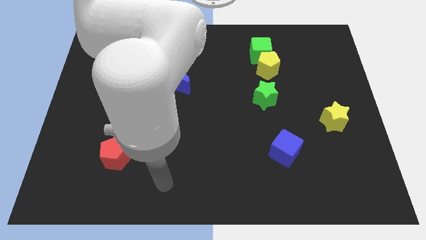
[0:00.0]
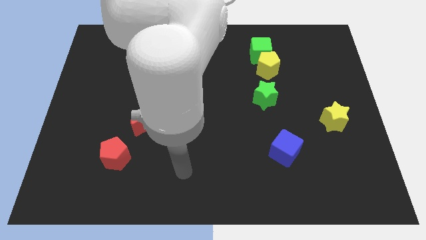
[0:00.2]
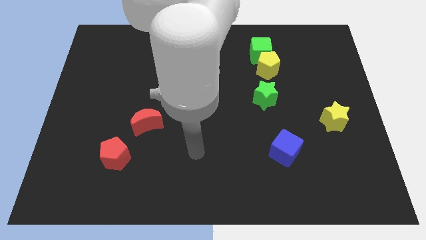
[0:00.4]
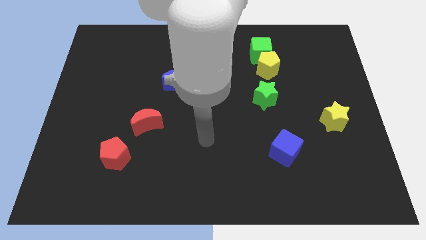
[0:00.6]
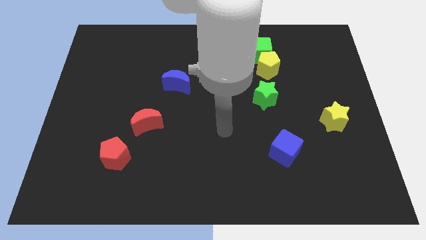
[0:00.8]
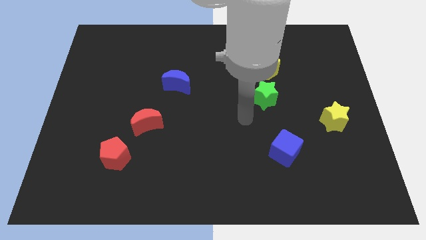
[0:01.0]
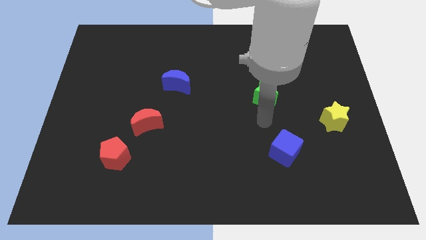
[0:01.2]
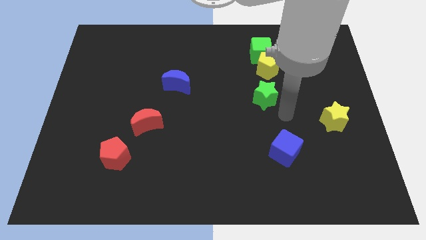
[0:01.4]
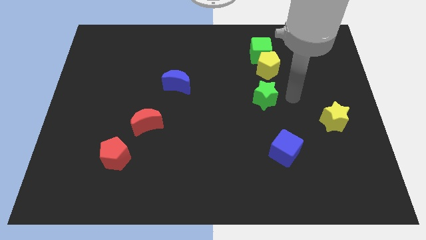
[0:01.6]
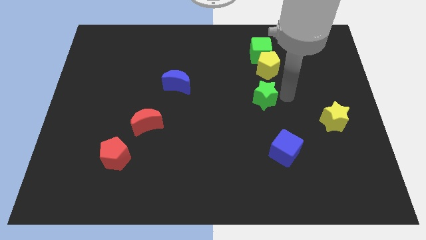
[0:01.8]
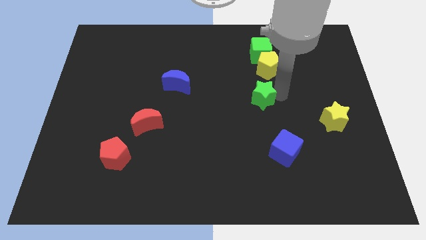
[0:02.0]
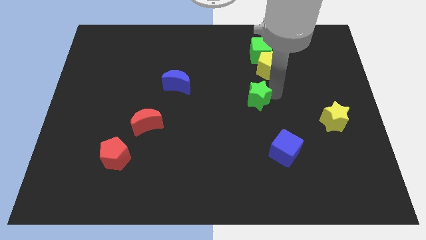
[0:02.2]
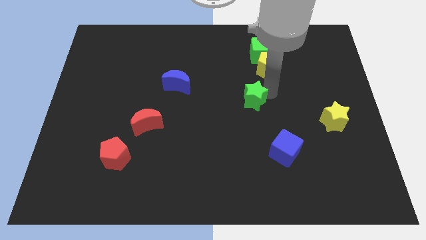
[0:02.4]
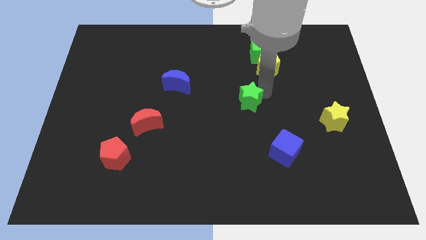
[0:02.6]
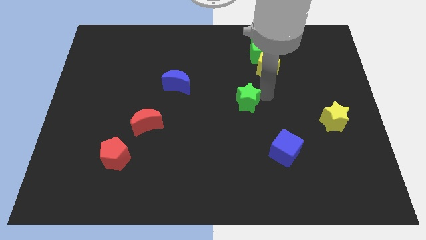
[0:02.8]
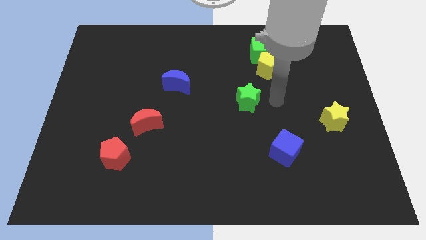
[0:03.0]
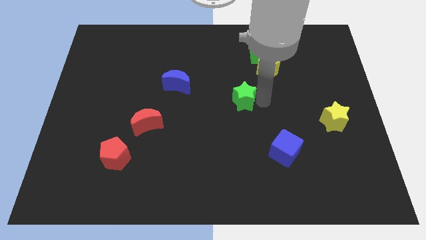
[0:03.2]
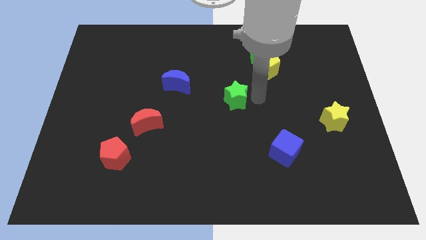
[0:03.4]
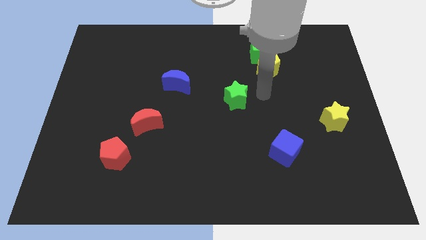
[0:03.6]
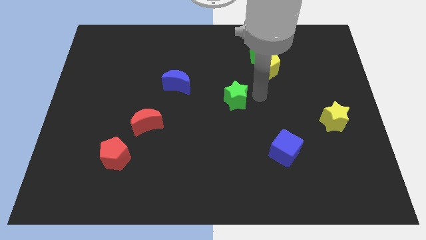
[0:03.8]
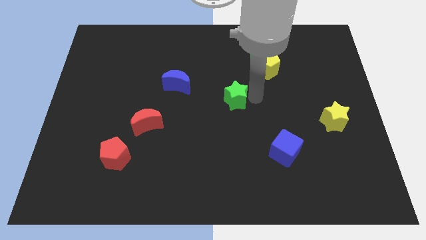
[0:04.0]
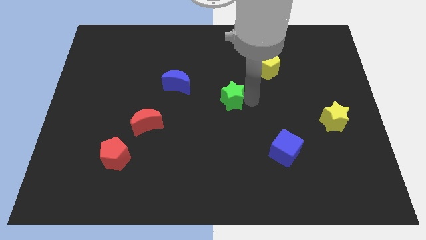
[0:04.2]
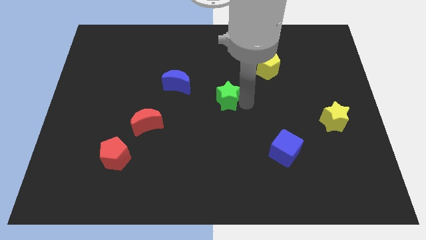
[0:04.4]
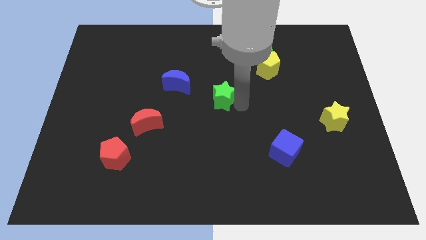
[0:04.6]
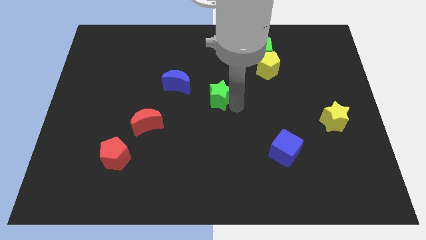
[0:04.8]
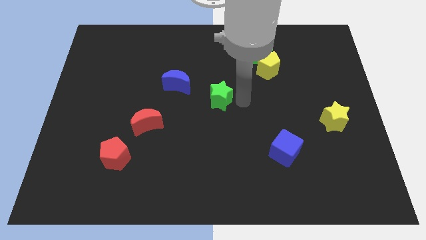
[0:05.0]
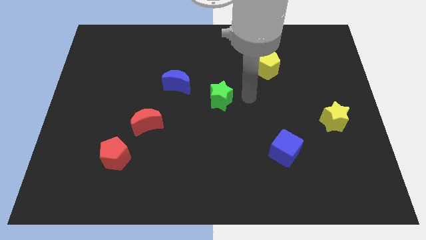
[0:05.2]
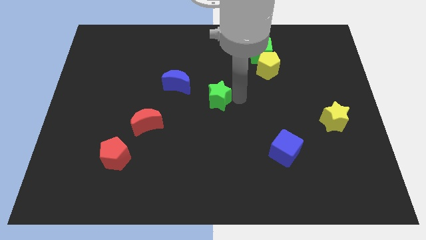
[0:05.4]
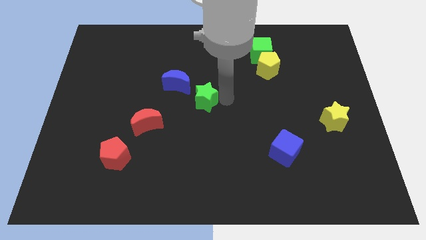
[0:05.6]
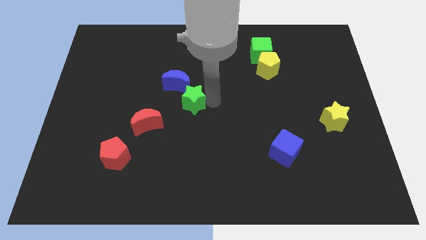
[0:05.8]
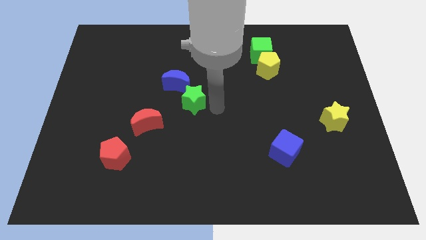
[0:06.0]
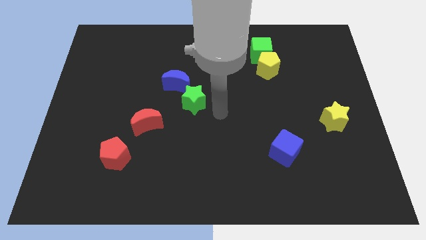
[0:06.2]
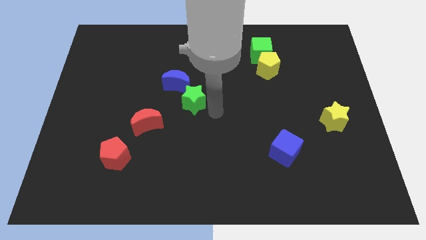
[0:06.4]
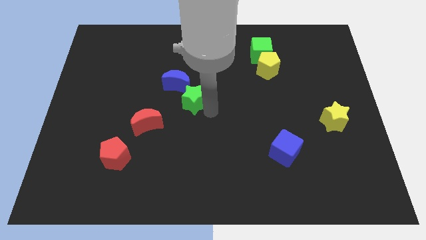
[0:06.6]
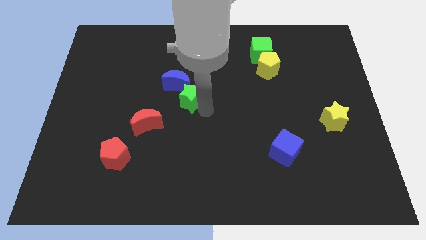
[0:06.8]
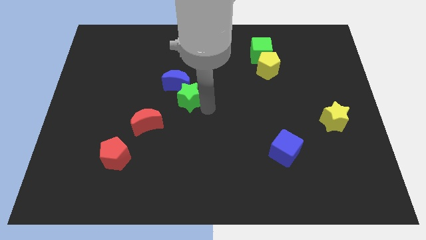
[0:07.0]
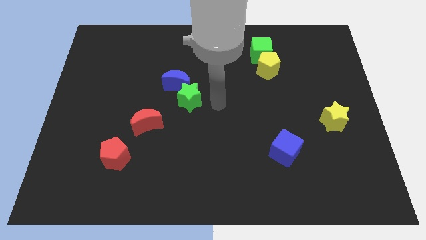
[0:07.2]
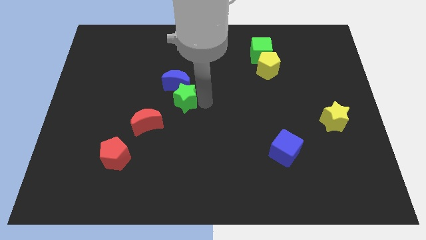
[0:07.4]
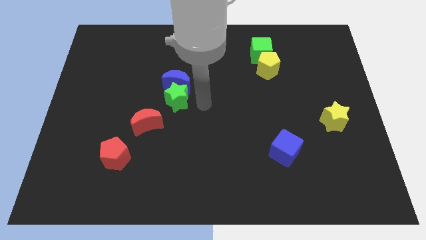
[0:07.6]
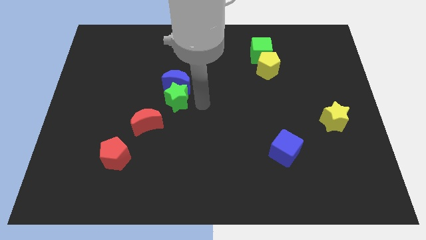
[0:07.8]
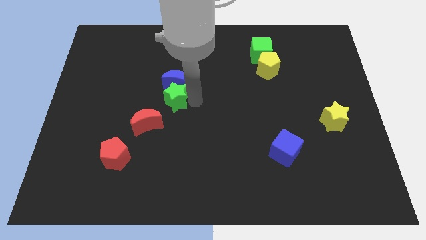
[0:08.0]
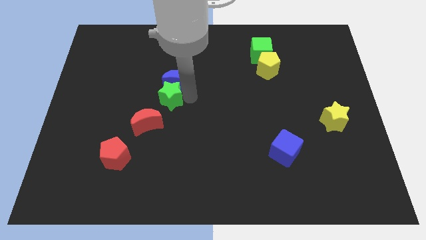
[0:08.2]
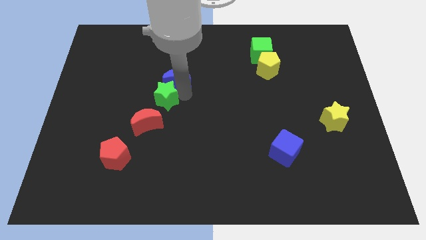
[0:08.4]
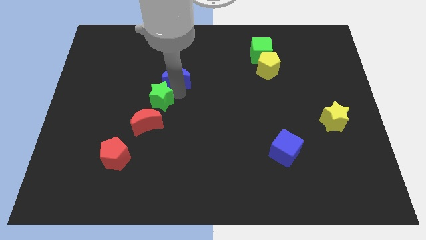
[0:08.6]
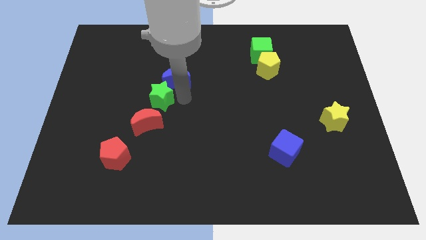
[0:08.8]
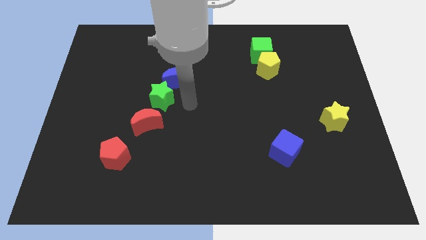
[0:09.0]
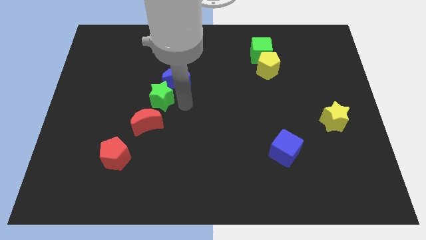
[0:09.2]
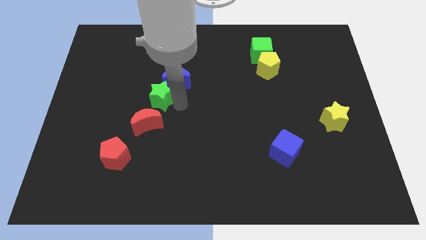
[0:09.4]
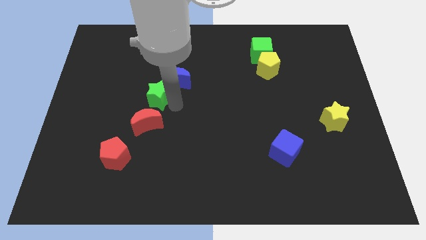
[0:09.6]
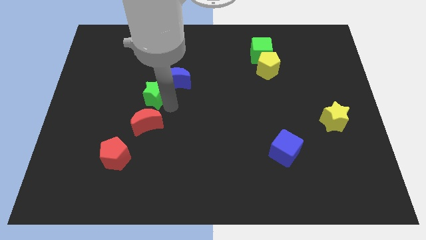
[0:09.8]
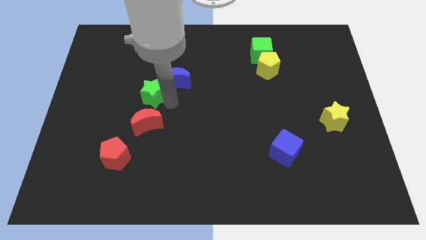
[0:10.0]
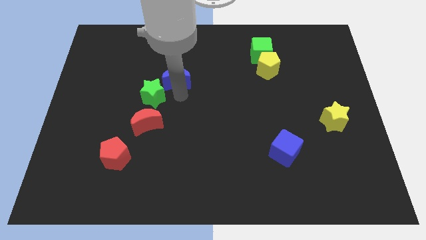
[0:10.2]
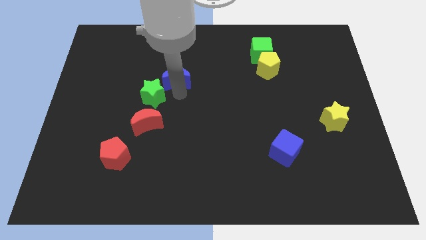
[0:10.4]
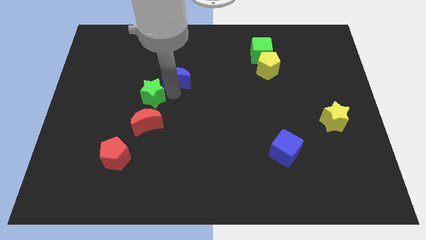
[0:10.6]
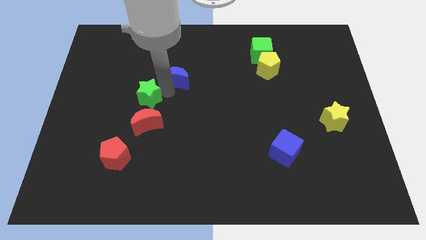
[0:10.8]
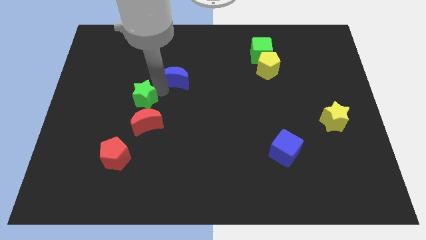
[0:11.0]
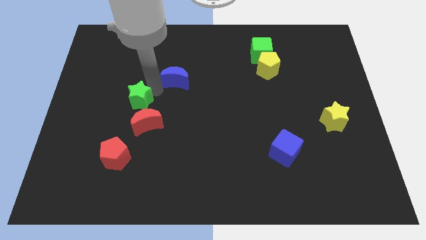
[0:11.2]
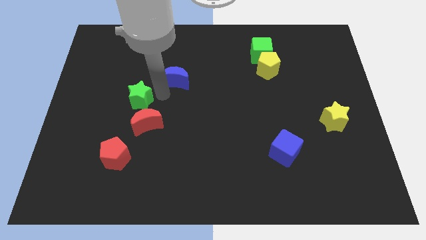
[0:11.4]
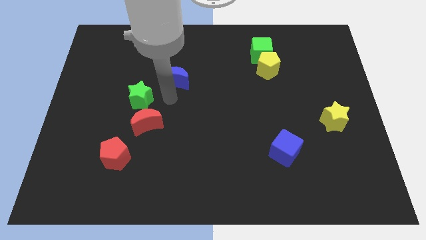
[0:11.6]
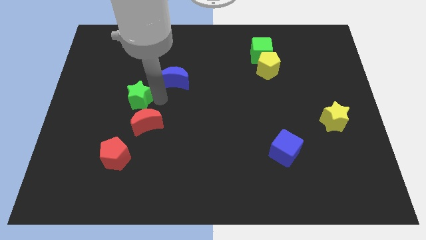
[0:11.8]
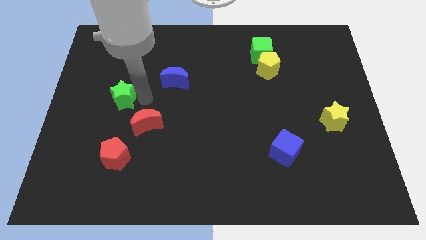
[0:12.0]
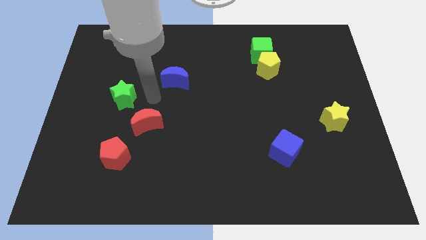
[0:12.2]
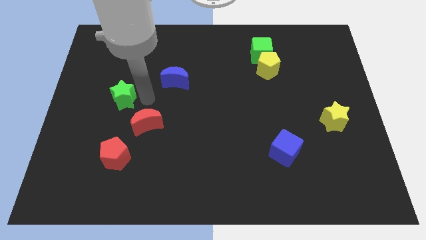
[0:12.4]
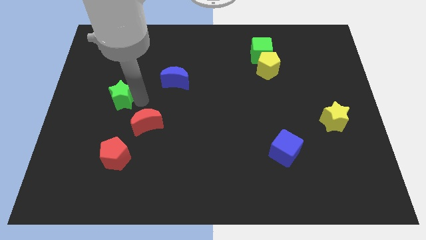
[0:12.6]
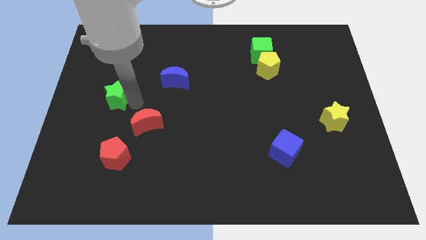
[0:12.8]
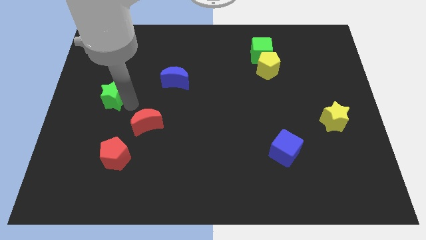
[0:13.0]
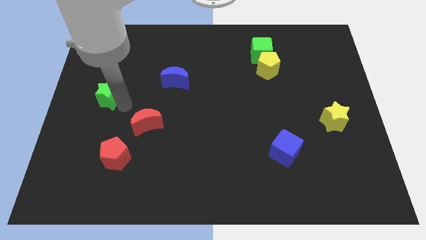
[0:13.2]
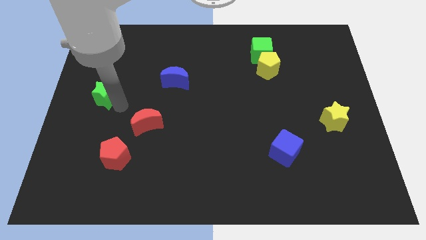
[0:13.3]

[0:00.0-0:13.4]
push the green star to the left side of the board
